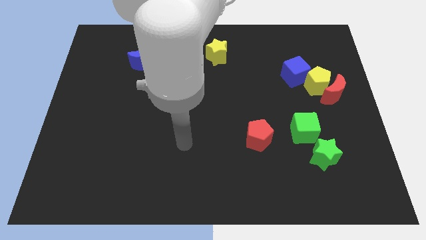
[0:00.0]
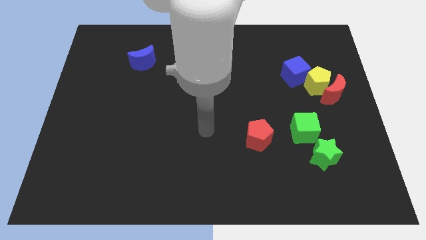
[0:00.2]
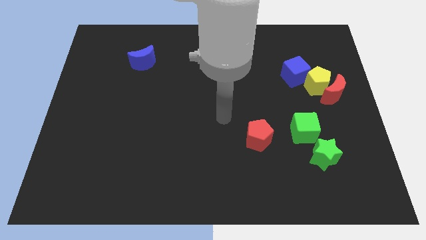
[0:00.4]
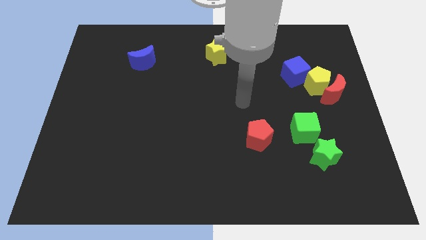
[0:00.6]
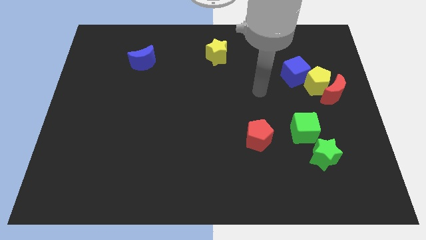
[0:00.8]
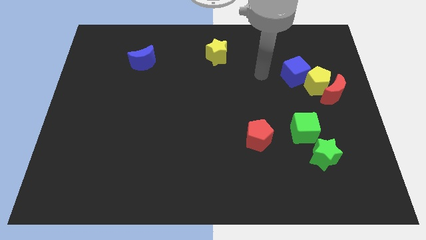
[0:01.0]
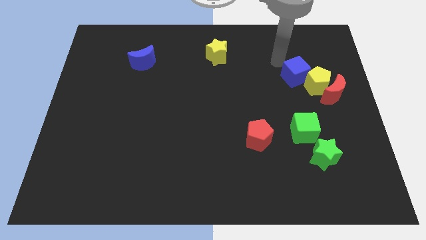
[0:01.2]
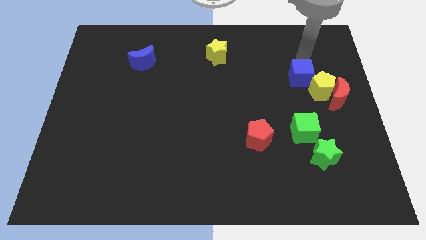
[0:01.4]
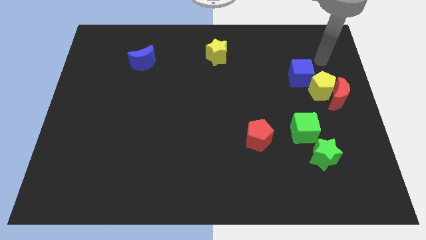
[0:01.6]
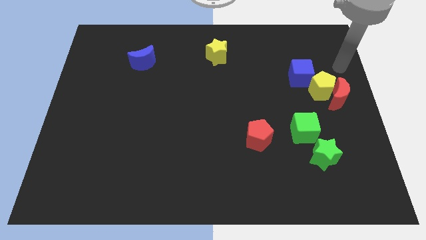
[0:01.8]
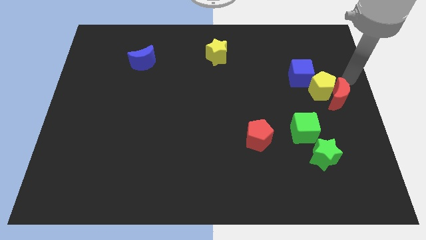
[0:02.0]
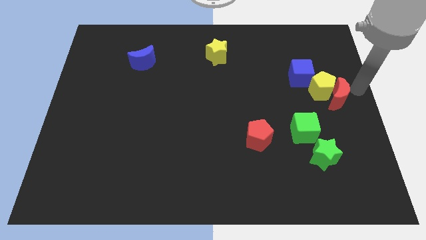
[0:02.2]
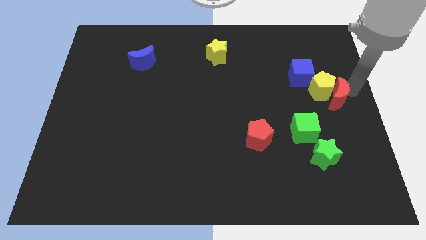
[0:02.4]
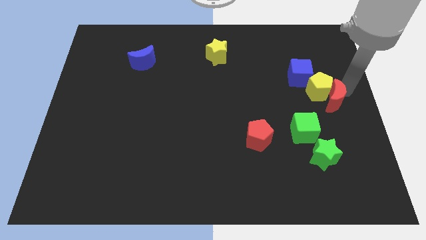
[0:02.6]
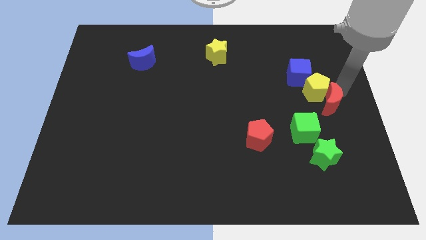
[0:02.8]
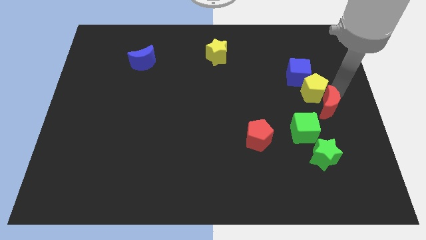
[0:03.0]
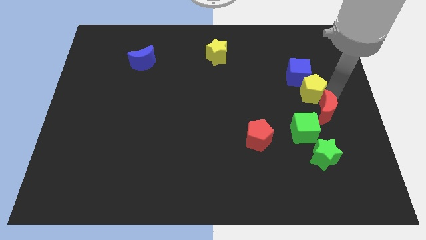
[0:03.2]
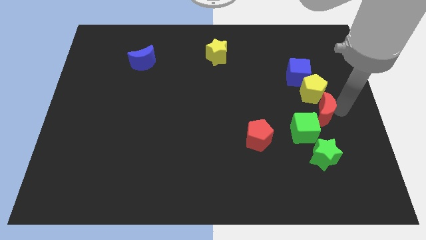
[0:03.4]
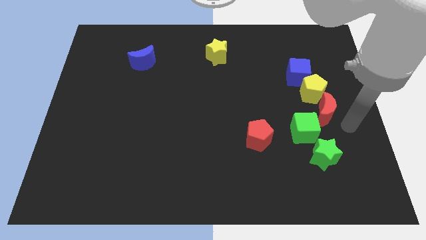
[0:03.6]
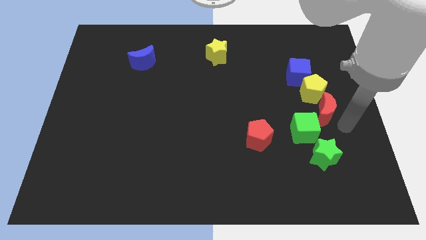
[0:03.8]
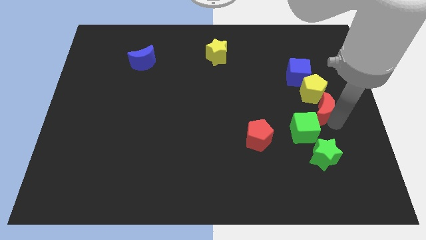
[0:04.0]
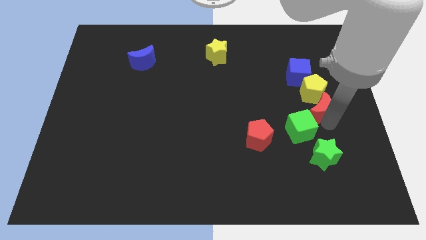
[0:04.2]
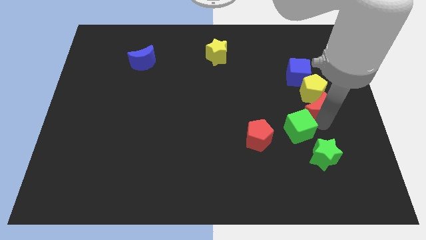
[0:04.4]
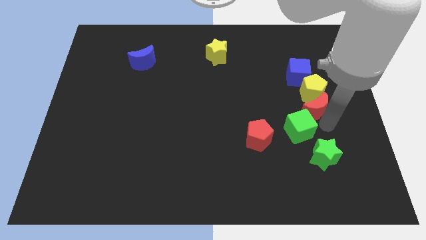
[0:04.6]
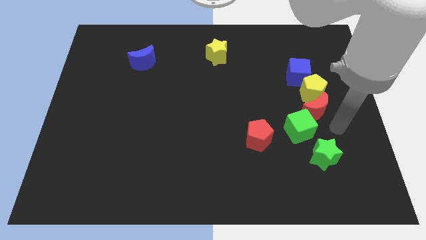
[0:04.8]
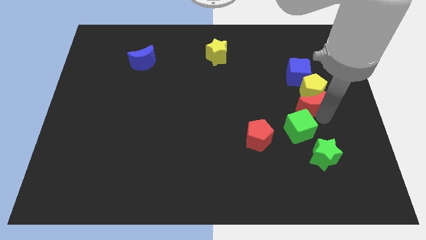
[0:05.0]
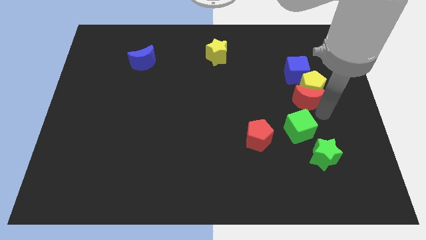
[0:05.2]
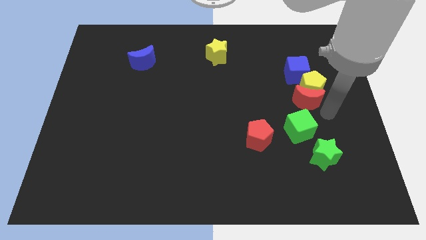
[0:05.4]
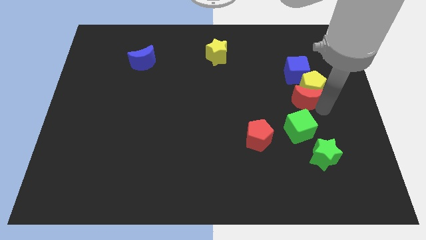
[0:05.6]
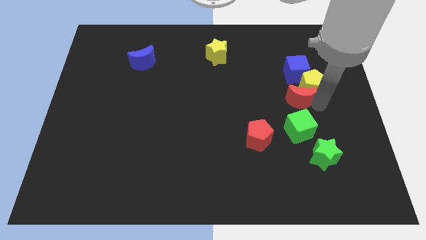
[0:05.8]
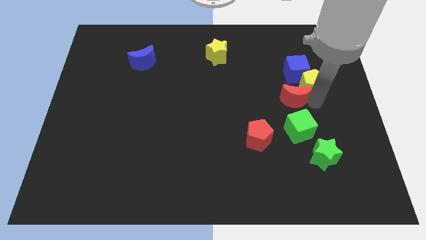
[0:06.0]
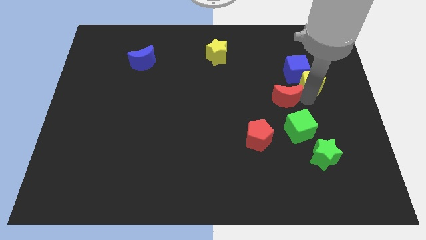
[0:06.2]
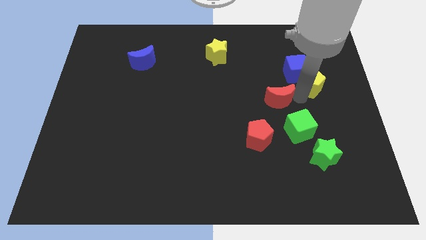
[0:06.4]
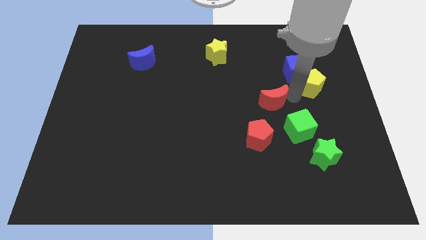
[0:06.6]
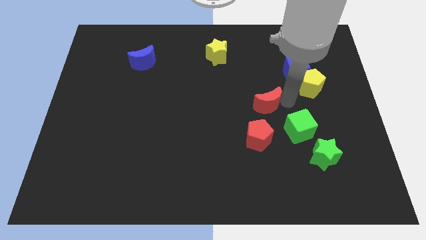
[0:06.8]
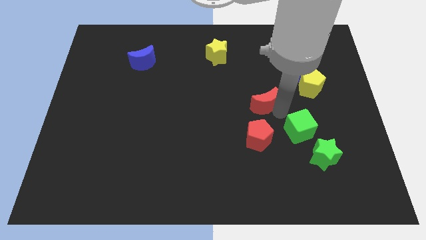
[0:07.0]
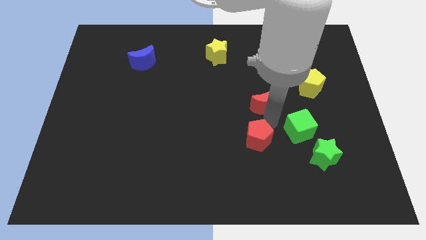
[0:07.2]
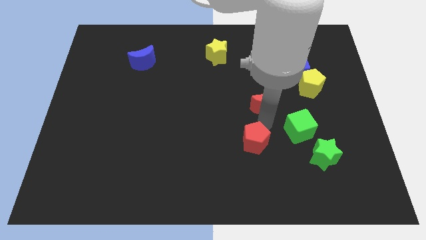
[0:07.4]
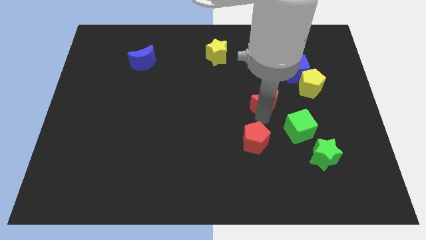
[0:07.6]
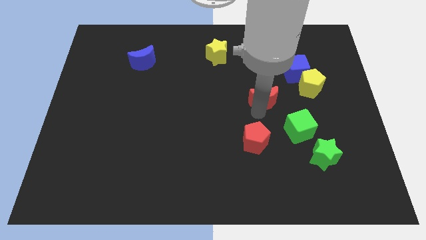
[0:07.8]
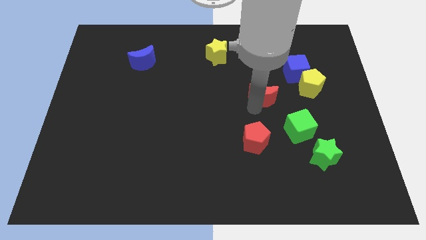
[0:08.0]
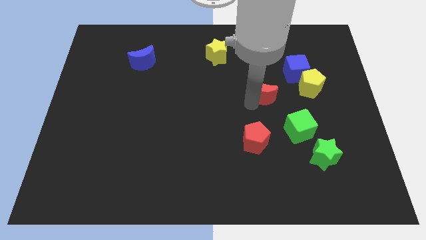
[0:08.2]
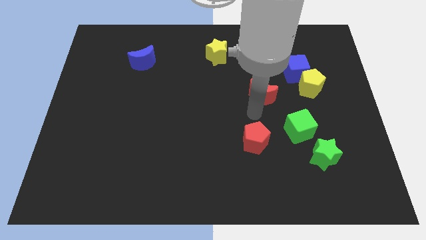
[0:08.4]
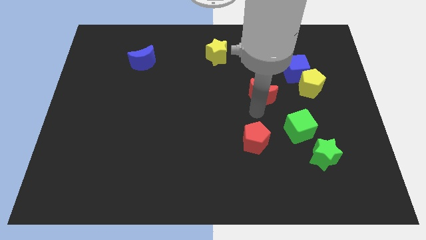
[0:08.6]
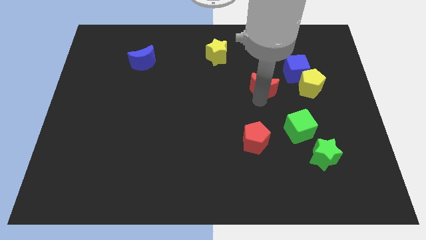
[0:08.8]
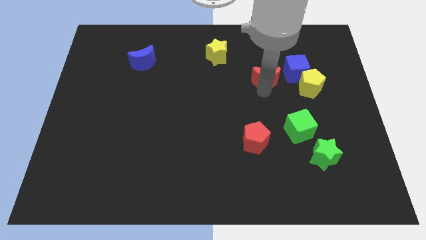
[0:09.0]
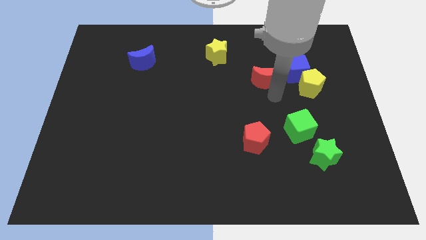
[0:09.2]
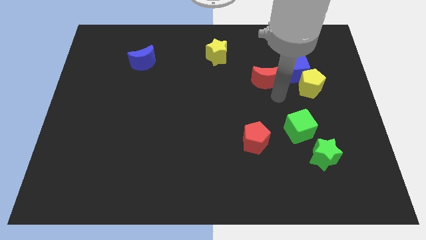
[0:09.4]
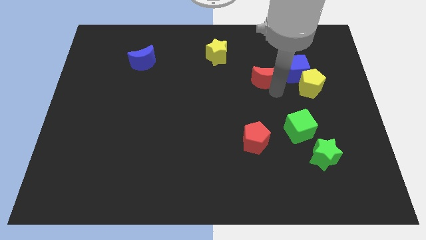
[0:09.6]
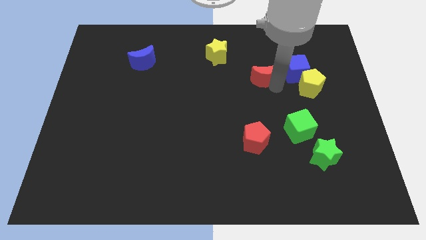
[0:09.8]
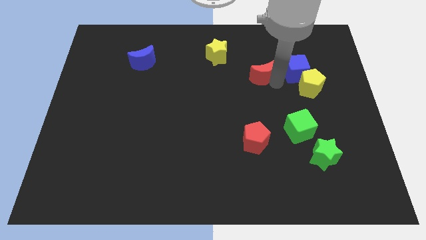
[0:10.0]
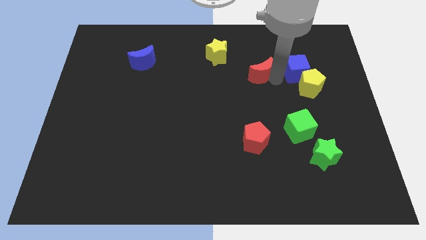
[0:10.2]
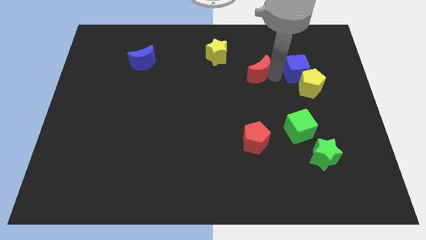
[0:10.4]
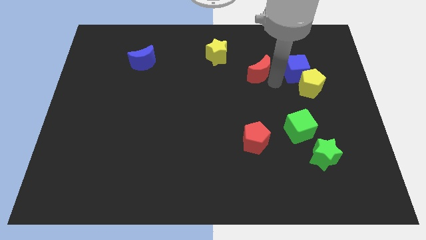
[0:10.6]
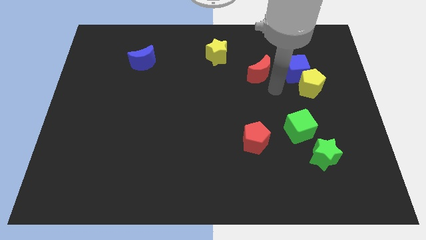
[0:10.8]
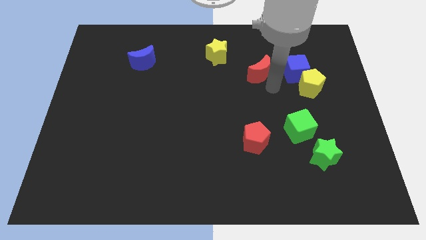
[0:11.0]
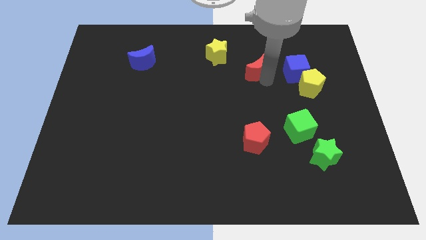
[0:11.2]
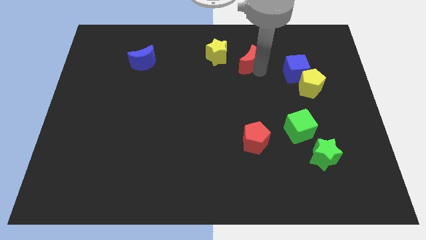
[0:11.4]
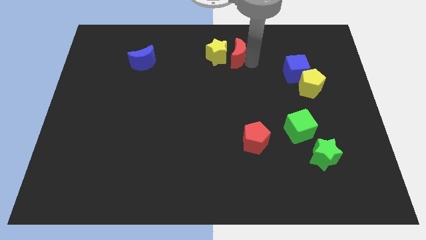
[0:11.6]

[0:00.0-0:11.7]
move the red moon towards the yellow star

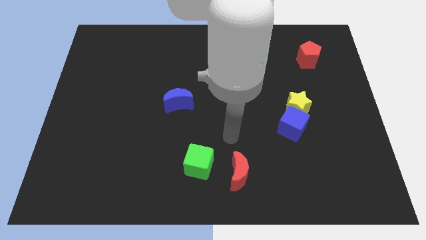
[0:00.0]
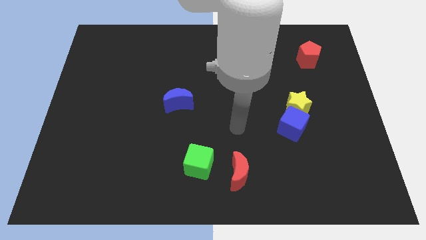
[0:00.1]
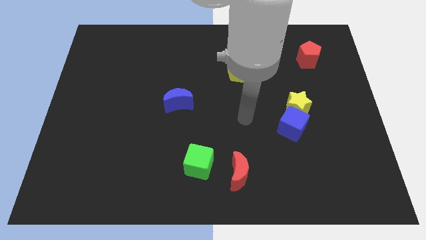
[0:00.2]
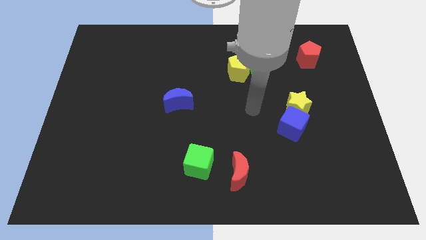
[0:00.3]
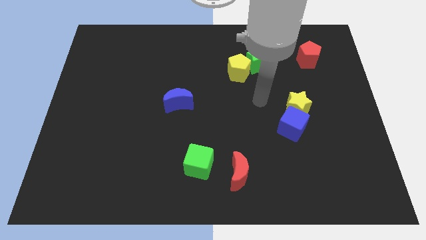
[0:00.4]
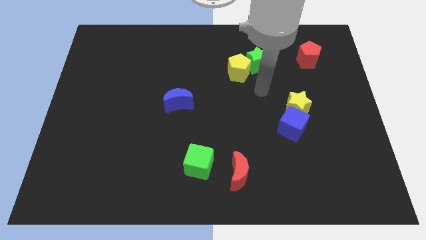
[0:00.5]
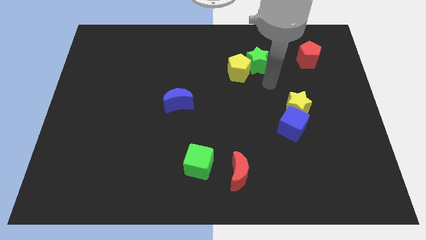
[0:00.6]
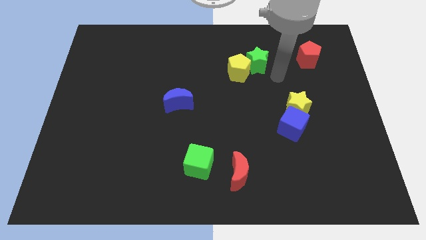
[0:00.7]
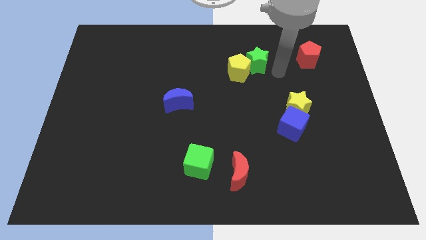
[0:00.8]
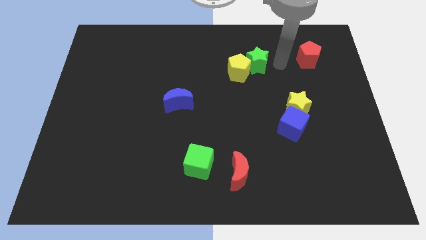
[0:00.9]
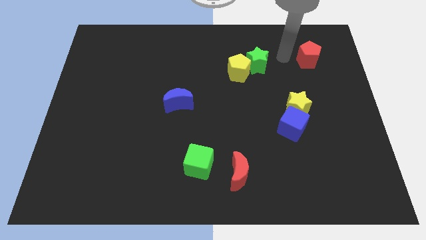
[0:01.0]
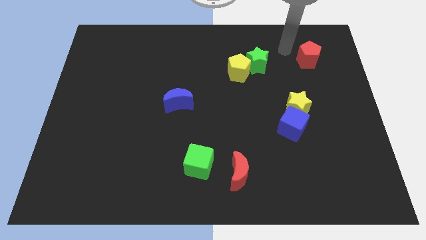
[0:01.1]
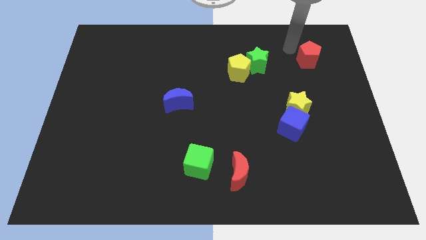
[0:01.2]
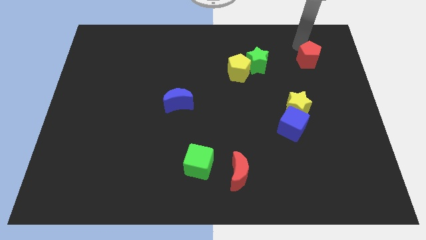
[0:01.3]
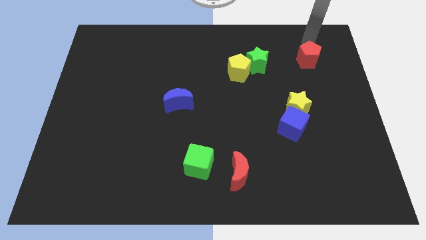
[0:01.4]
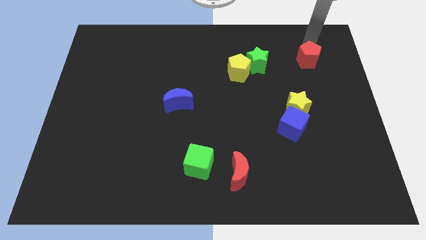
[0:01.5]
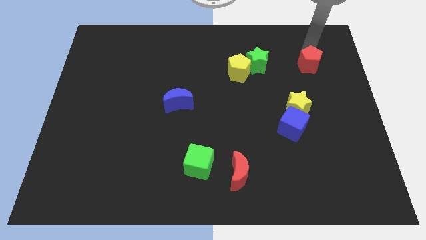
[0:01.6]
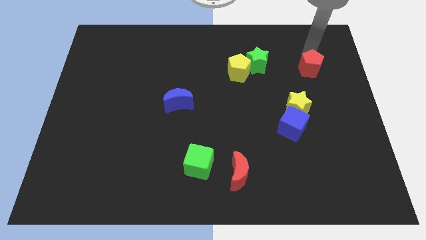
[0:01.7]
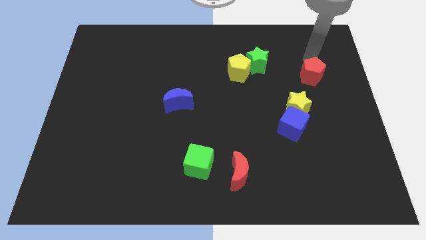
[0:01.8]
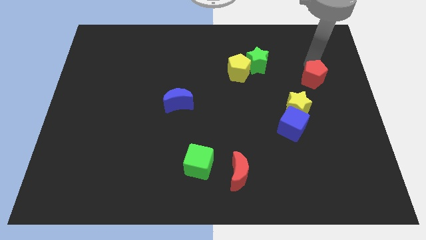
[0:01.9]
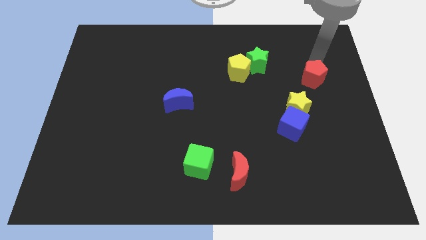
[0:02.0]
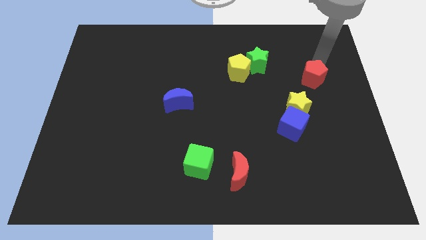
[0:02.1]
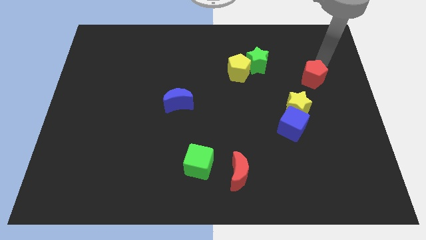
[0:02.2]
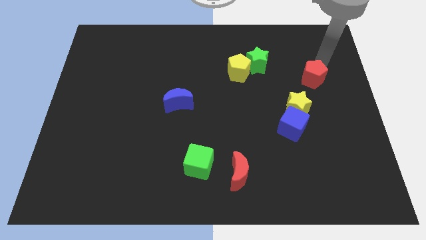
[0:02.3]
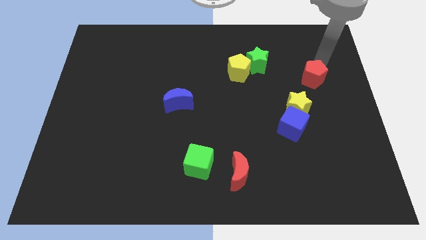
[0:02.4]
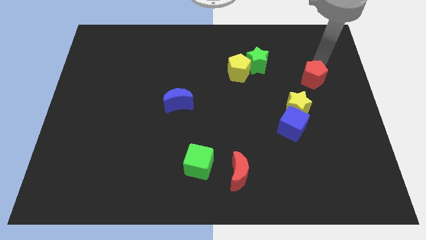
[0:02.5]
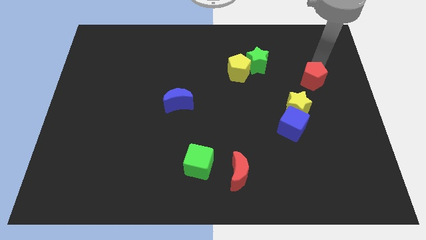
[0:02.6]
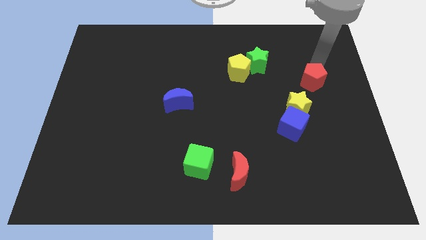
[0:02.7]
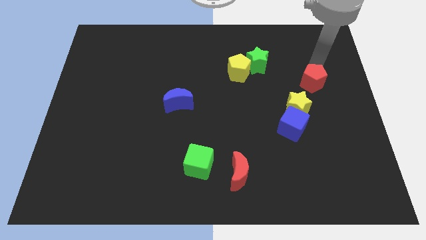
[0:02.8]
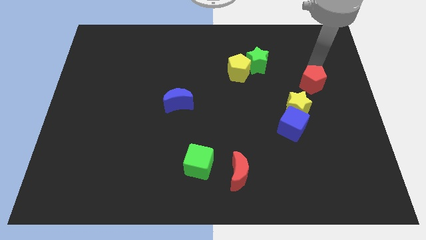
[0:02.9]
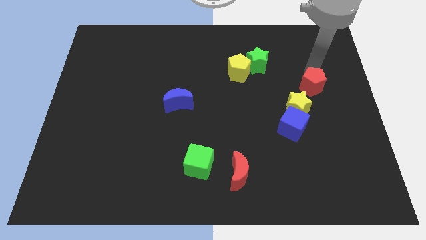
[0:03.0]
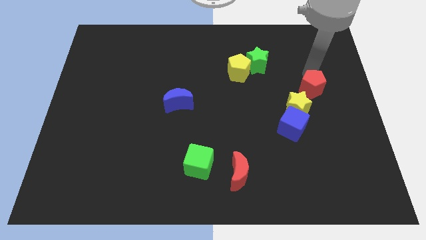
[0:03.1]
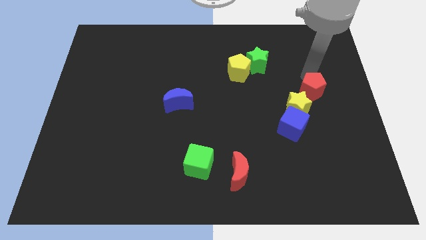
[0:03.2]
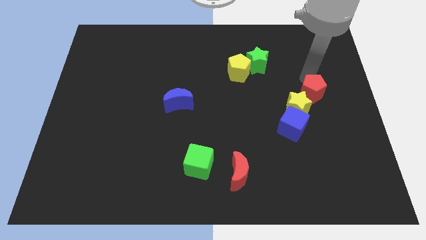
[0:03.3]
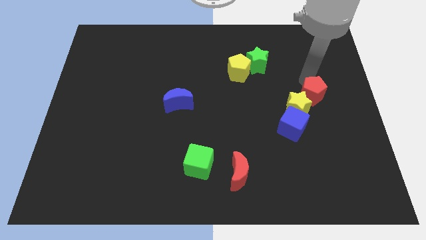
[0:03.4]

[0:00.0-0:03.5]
move the red pentagon next to the yellow star
